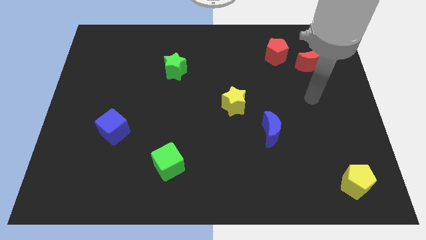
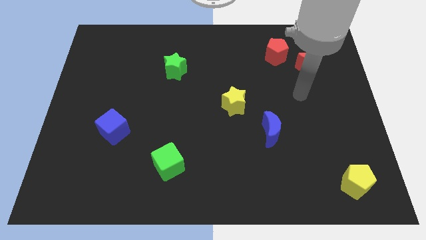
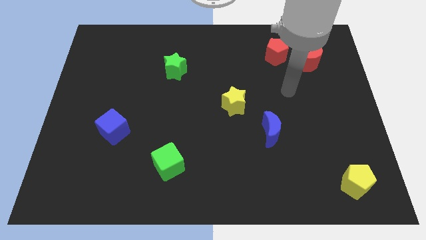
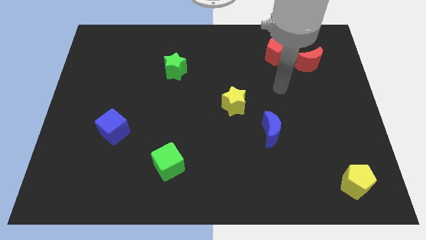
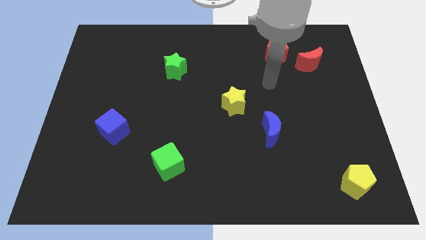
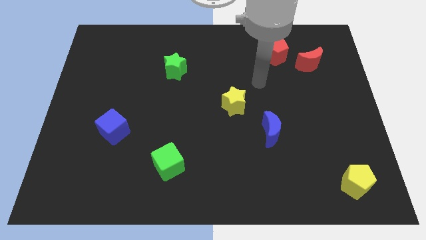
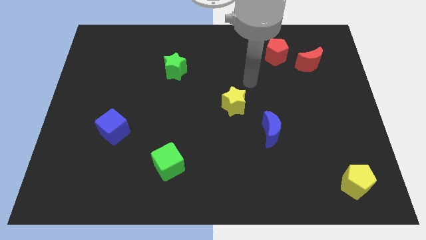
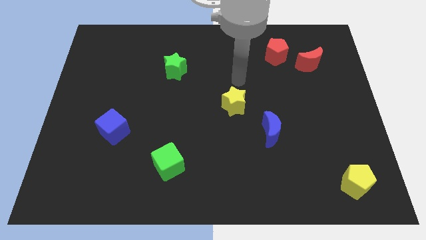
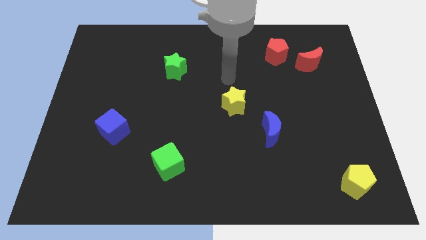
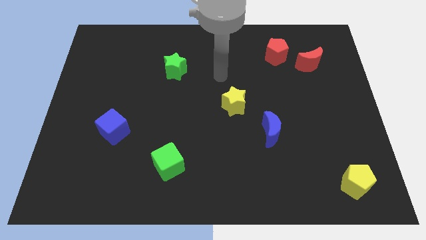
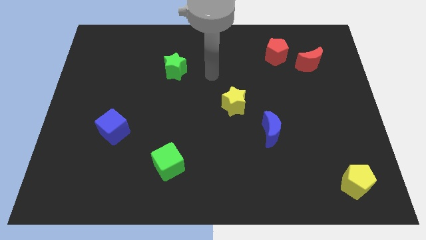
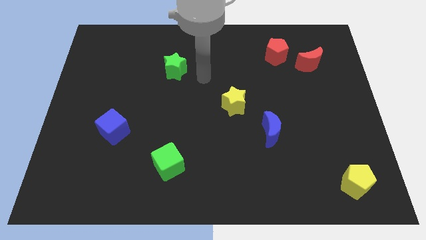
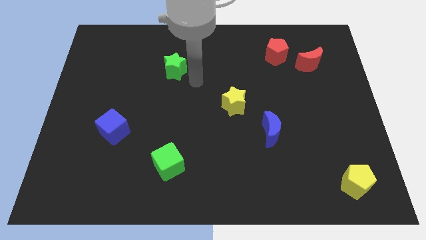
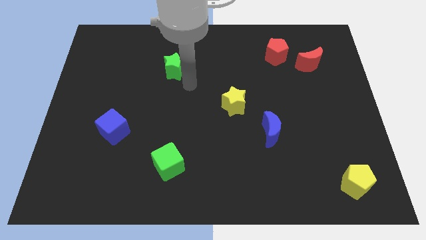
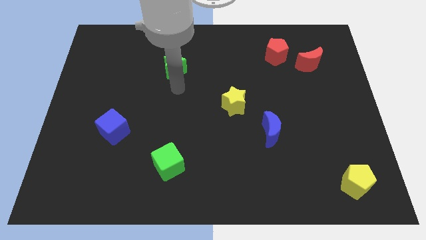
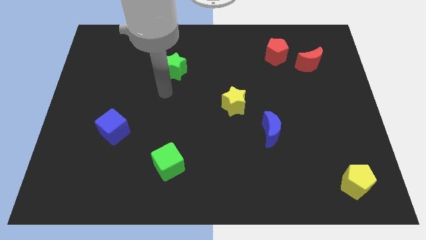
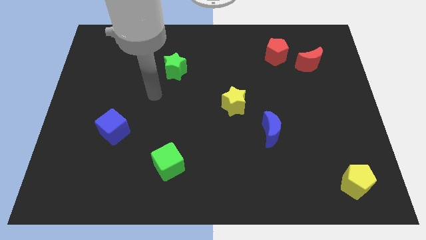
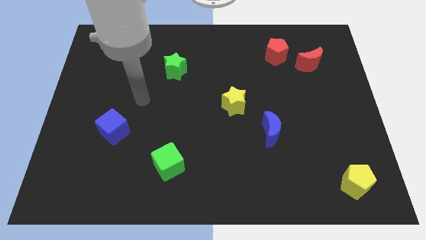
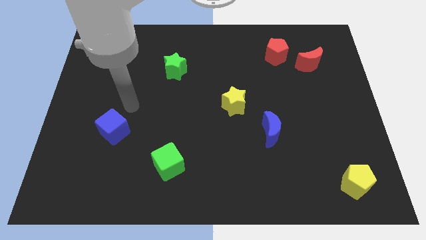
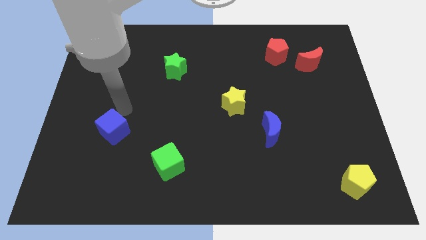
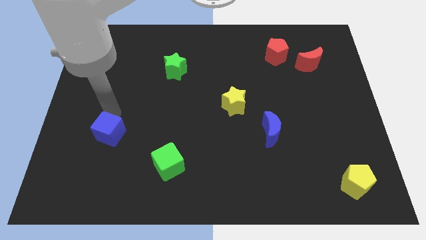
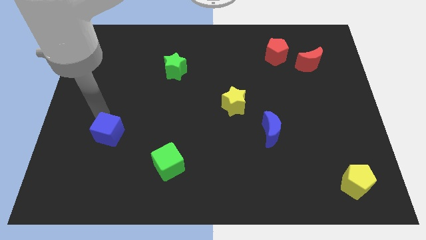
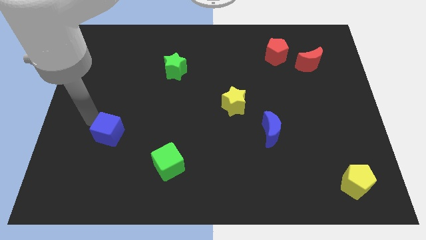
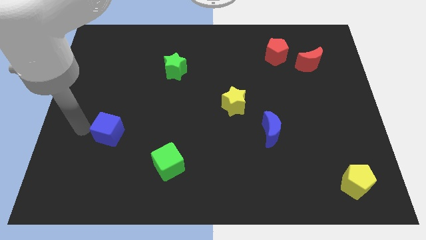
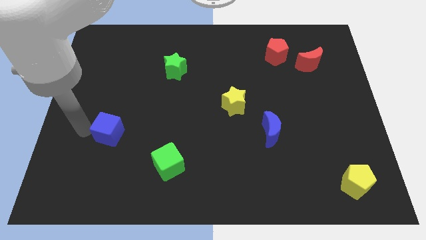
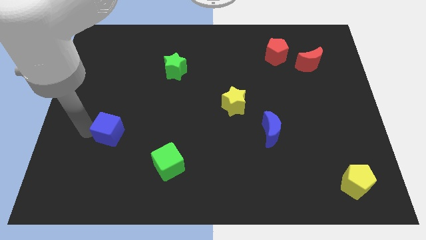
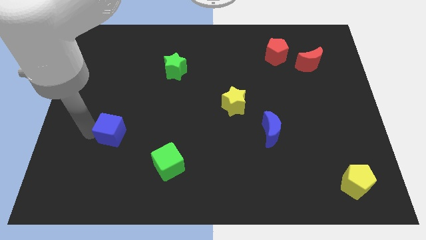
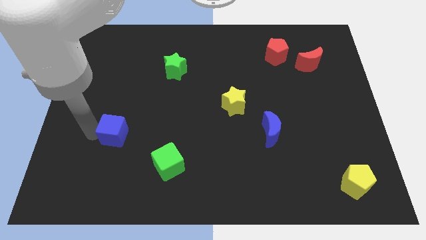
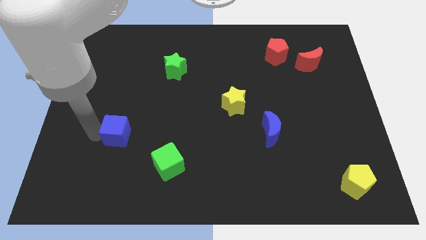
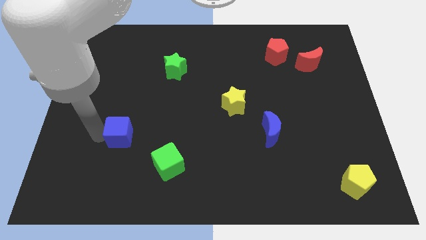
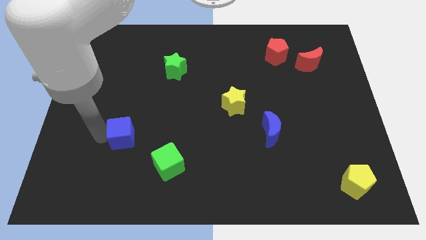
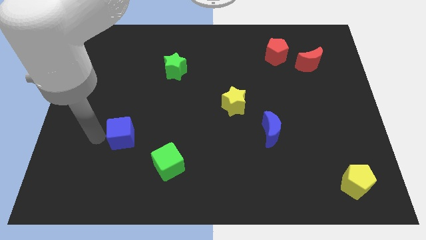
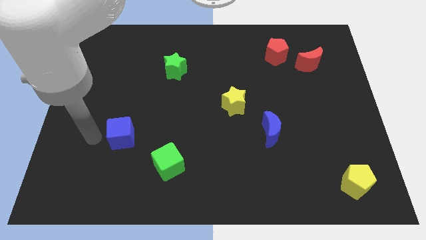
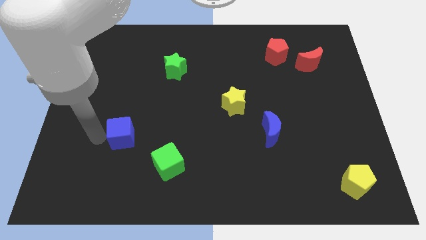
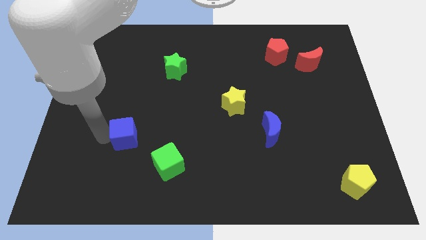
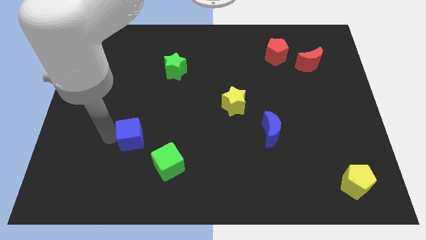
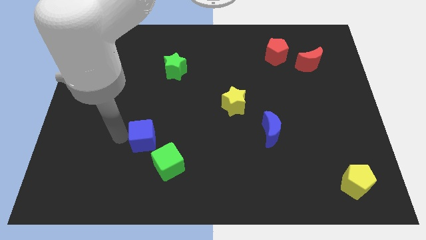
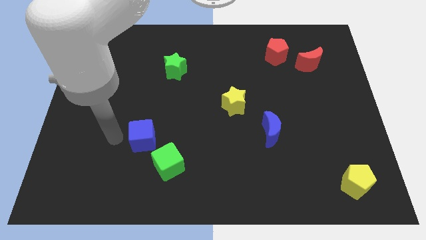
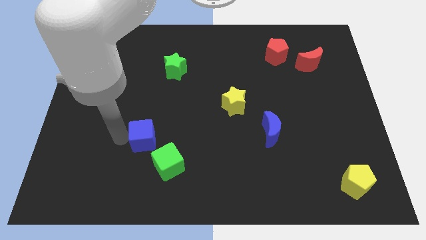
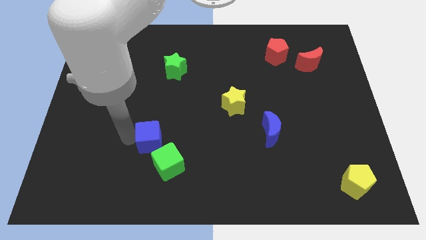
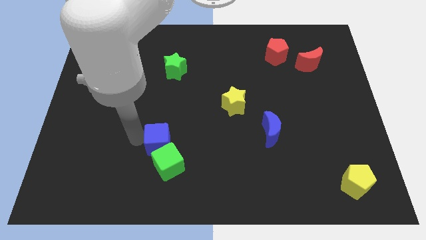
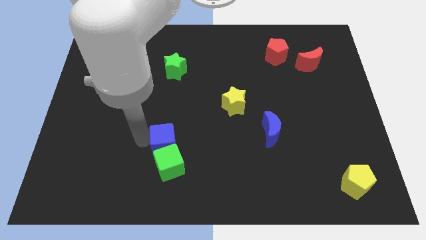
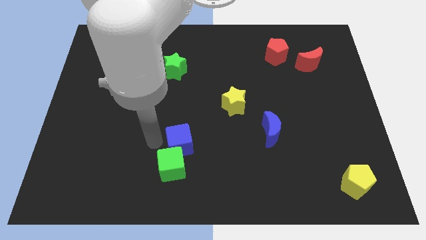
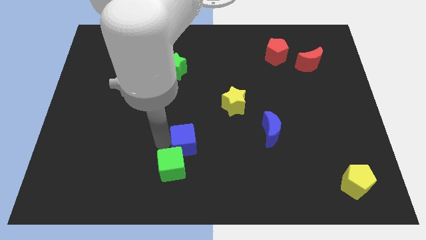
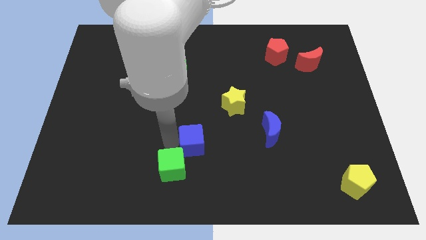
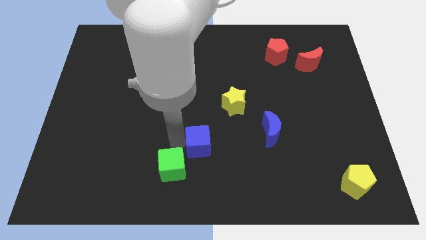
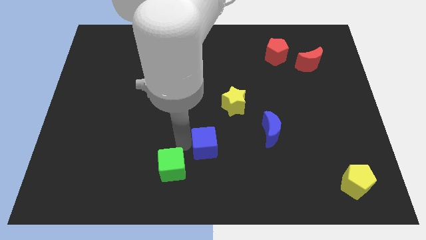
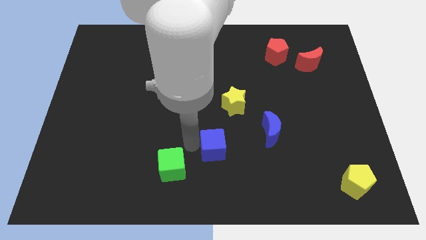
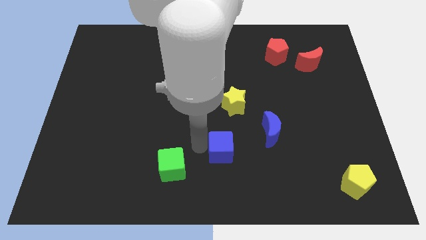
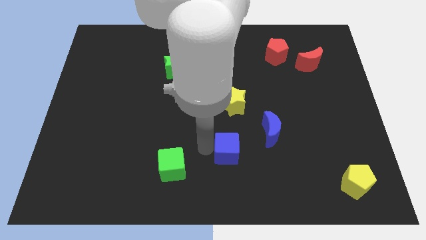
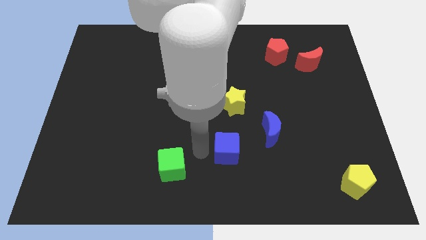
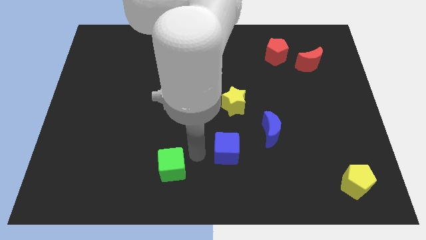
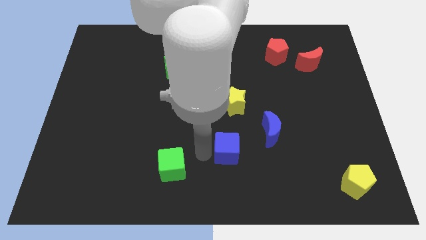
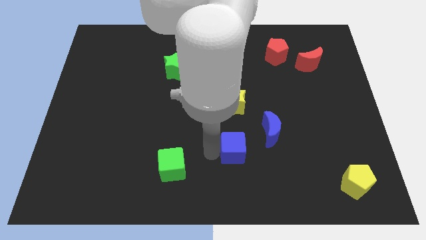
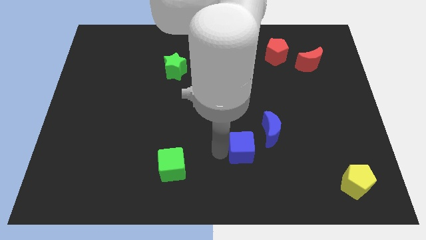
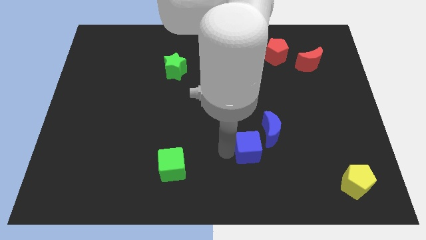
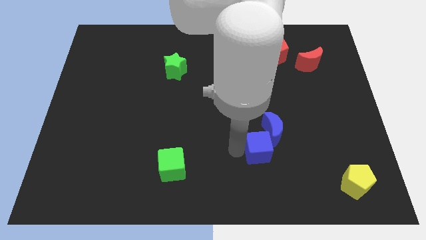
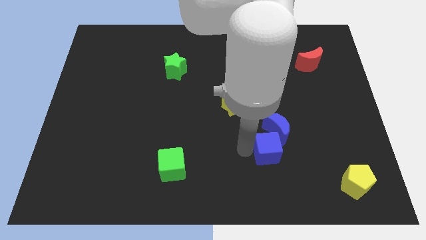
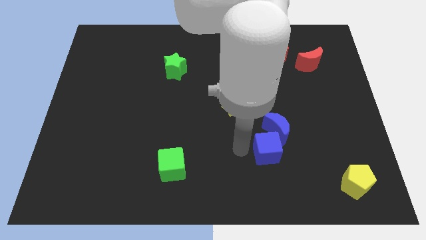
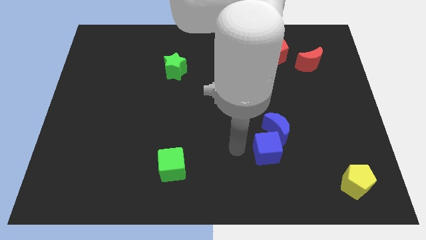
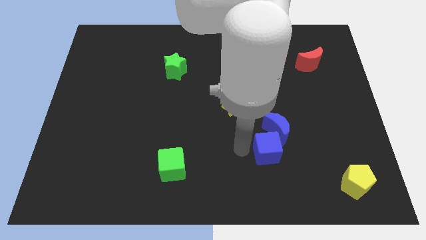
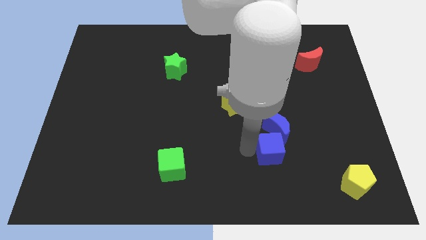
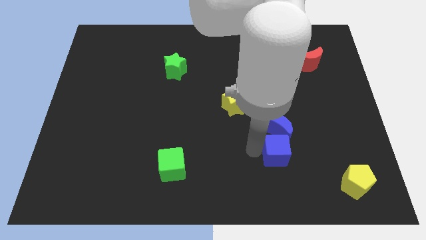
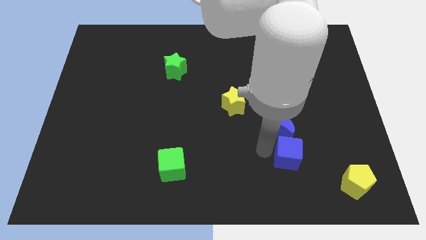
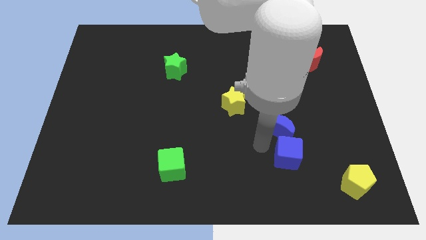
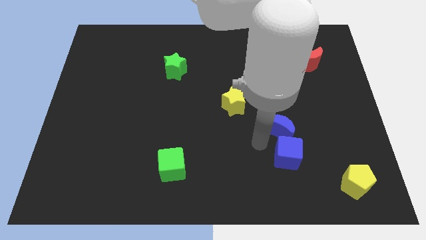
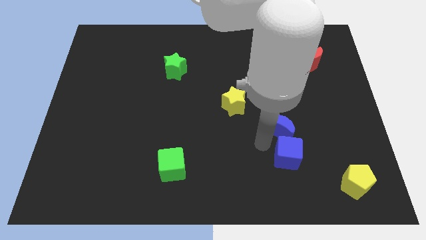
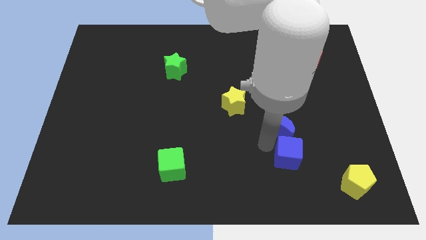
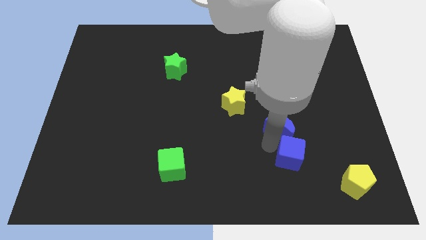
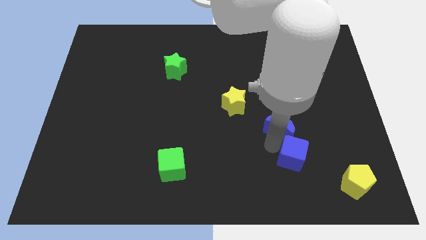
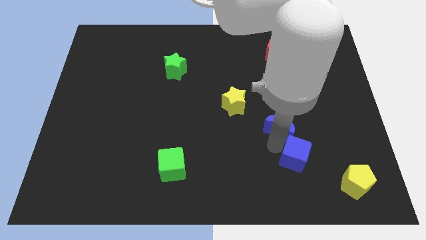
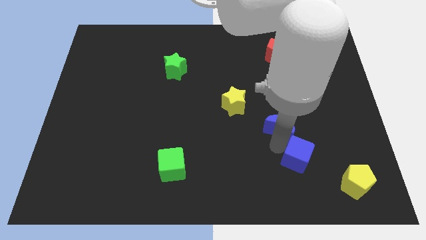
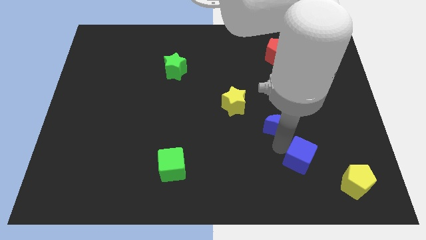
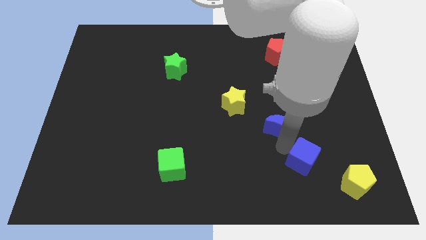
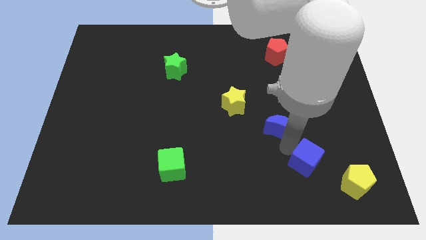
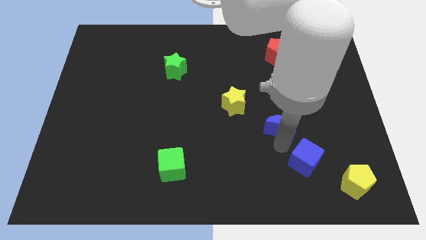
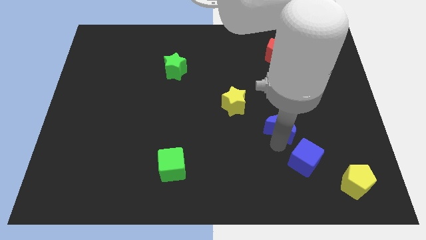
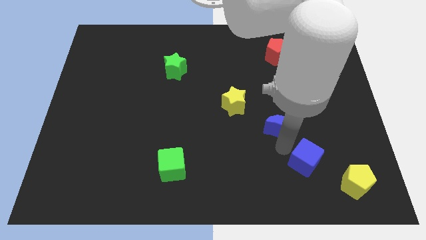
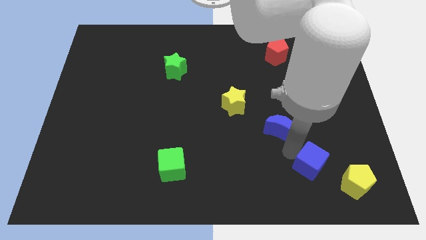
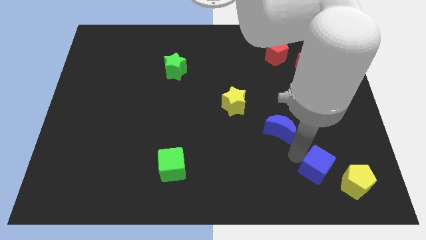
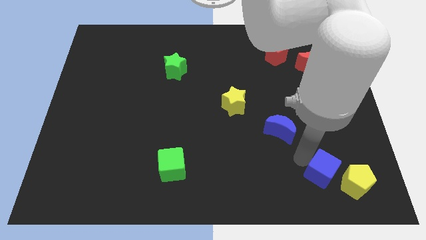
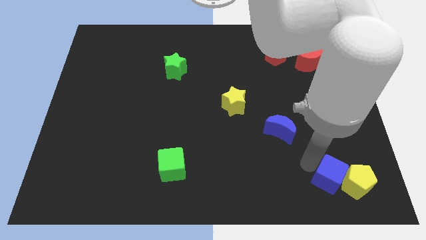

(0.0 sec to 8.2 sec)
slide the blue cube towards the yellow pentagon

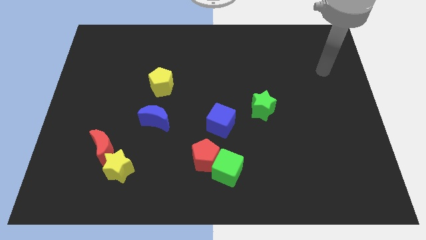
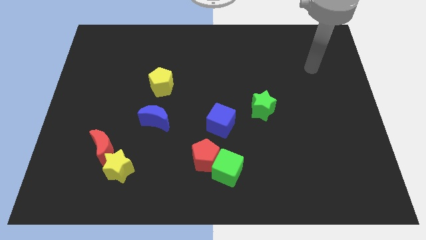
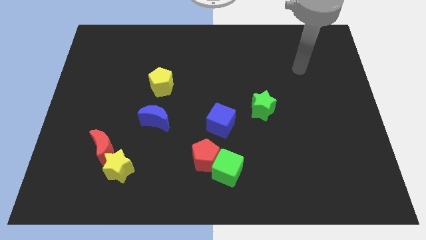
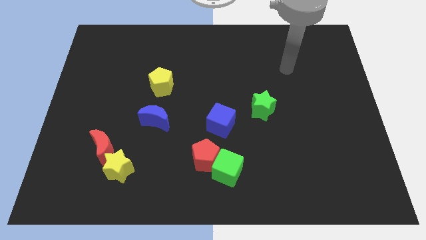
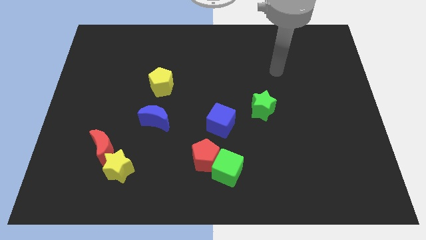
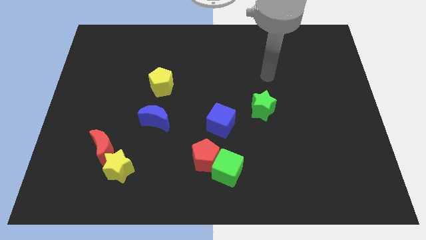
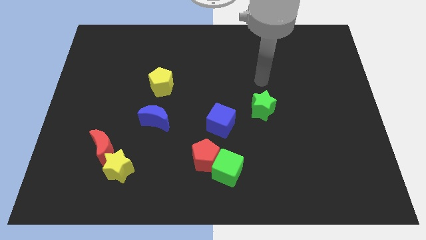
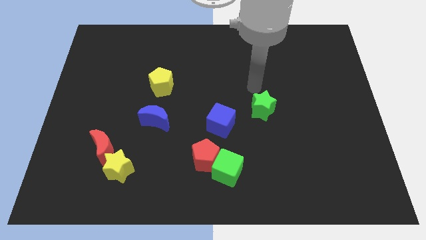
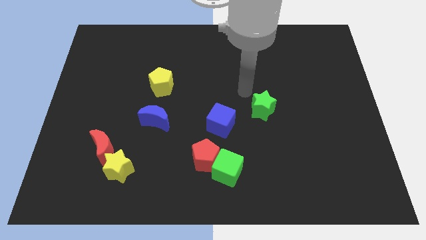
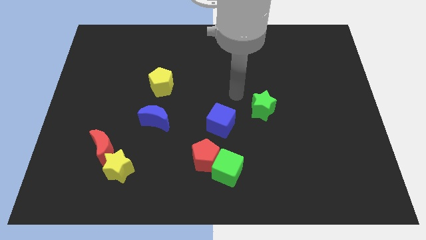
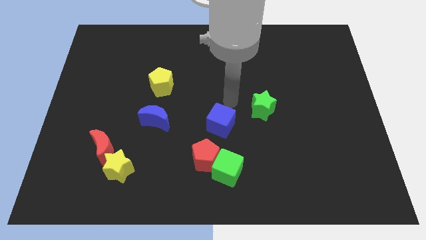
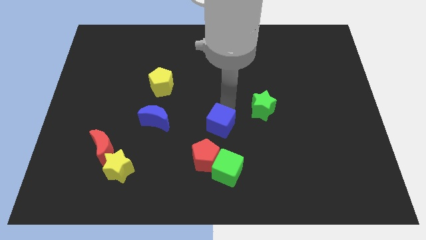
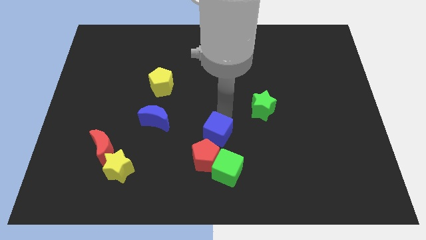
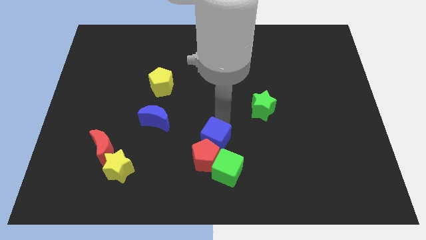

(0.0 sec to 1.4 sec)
slide the blue cube to the red pentagon
